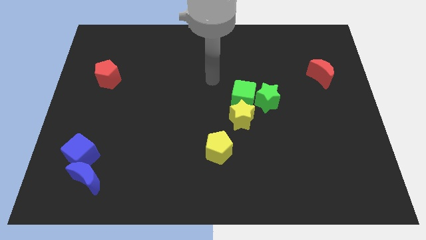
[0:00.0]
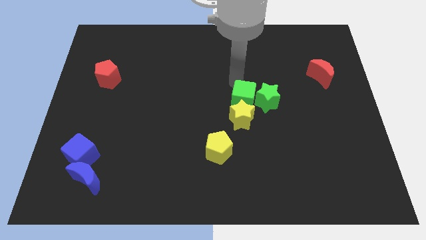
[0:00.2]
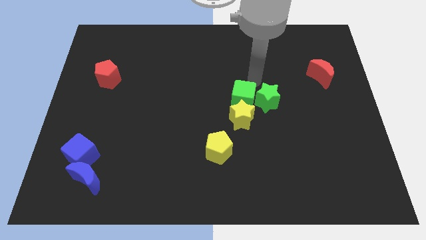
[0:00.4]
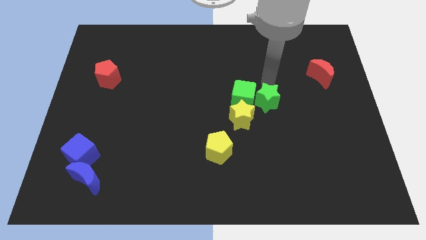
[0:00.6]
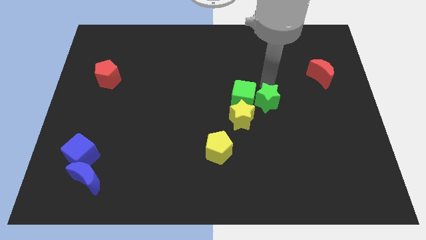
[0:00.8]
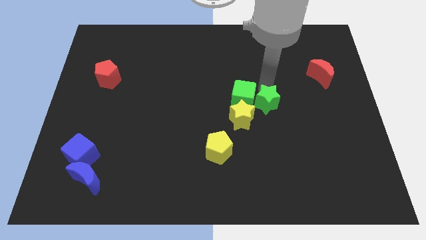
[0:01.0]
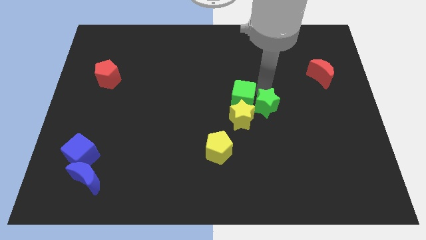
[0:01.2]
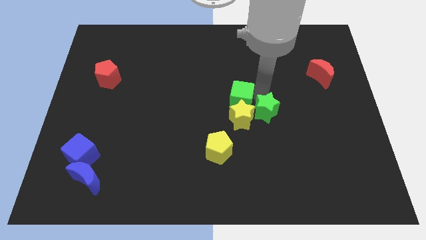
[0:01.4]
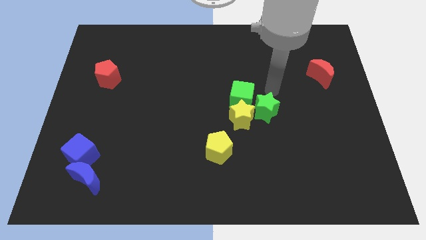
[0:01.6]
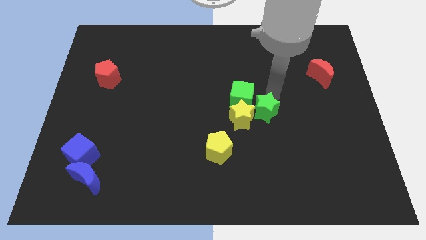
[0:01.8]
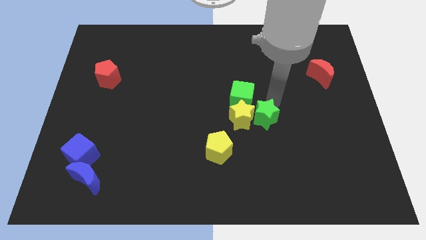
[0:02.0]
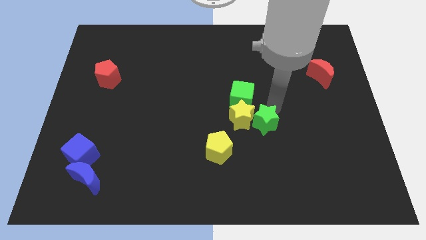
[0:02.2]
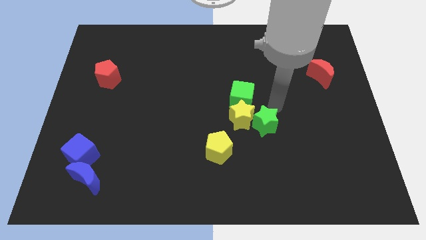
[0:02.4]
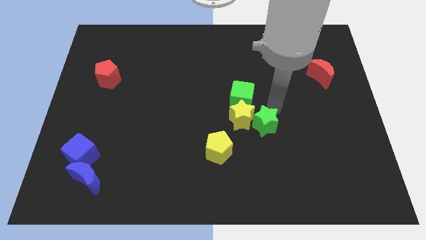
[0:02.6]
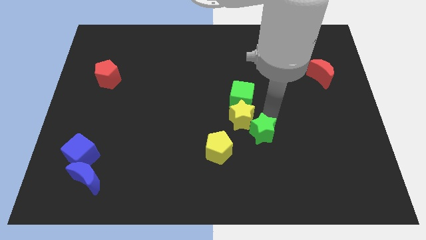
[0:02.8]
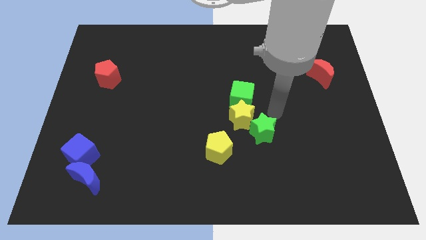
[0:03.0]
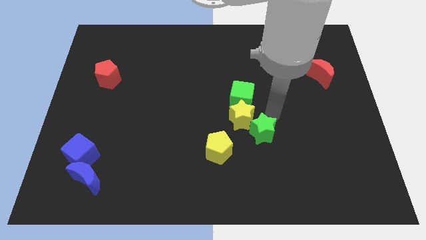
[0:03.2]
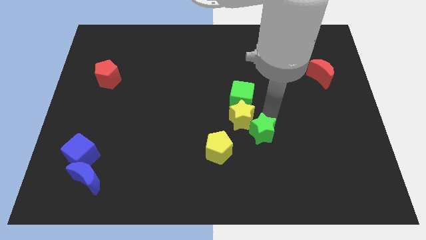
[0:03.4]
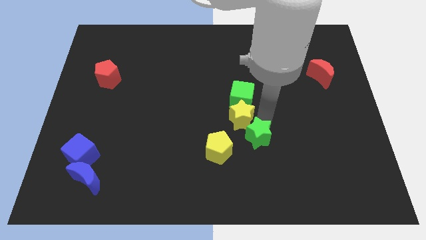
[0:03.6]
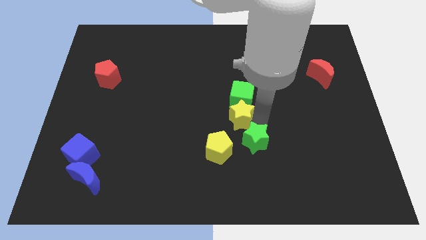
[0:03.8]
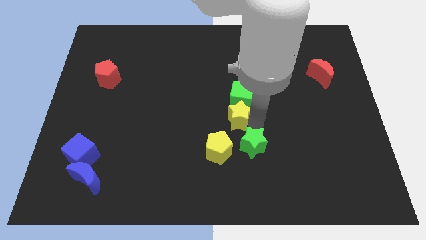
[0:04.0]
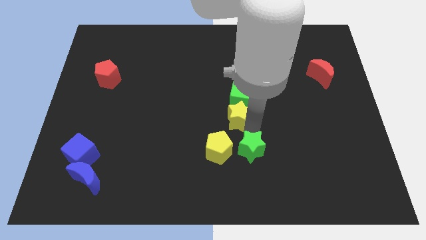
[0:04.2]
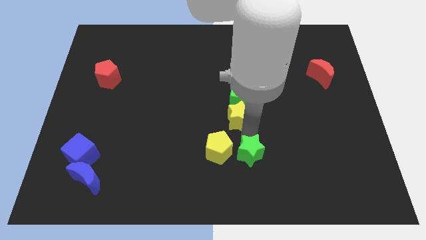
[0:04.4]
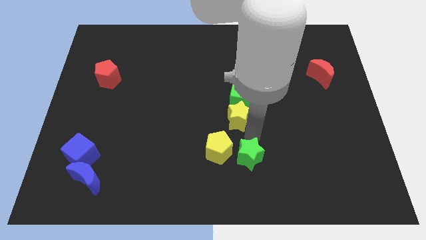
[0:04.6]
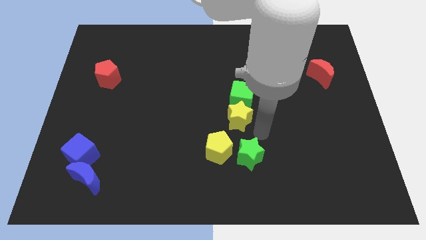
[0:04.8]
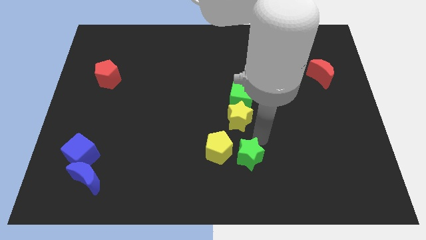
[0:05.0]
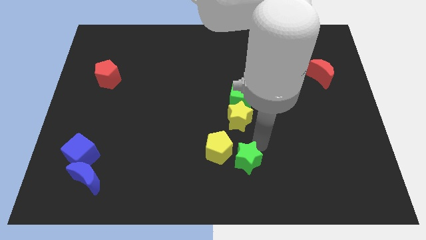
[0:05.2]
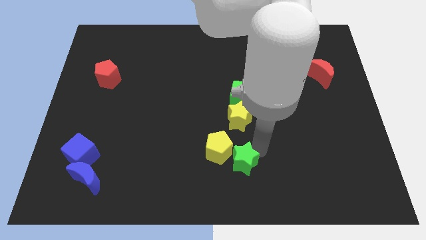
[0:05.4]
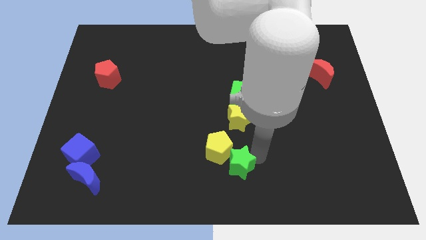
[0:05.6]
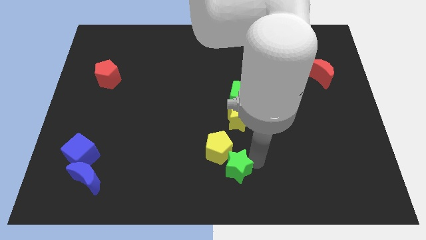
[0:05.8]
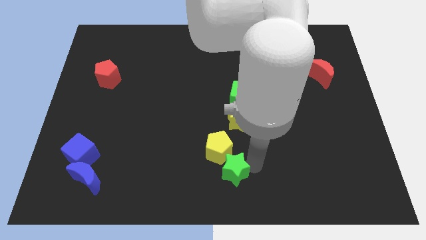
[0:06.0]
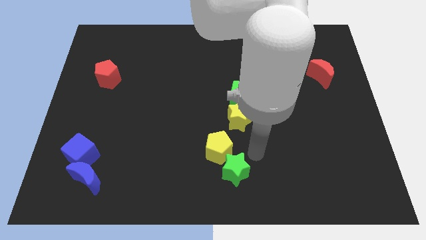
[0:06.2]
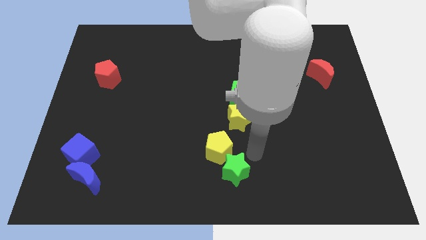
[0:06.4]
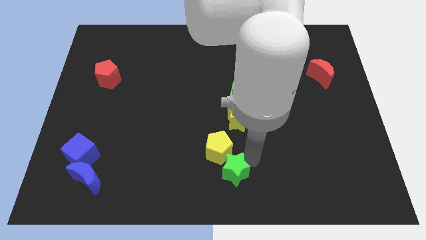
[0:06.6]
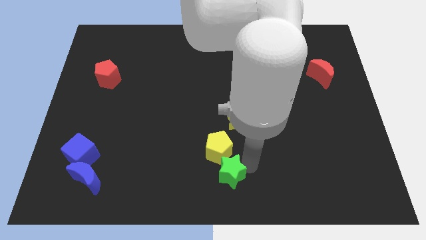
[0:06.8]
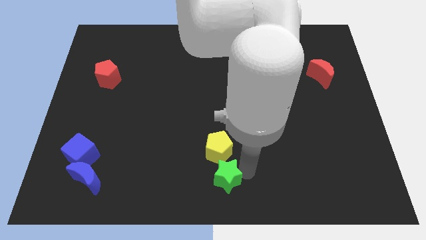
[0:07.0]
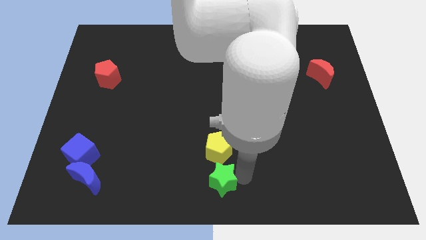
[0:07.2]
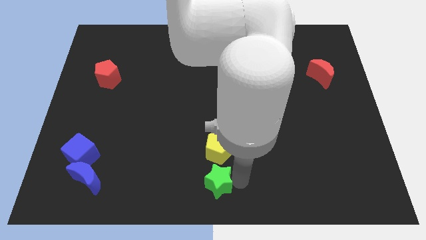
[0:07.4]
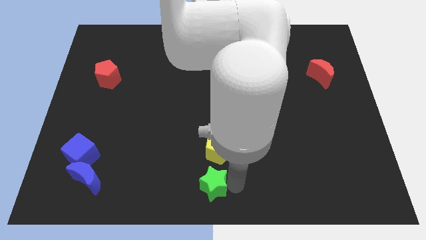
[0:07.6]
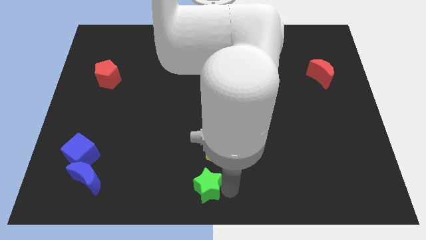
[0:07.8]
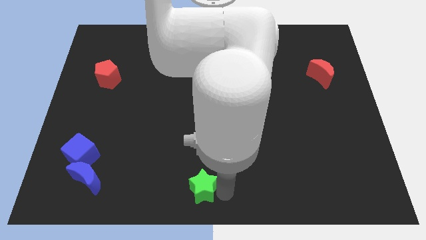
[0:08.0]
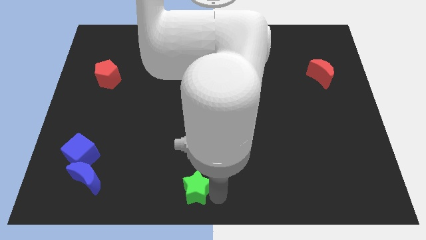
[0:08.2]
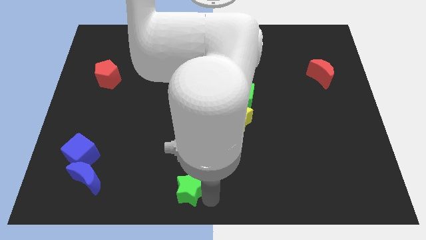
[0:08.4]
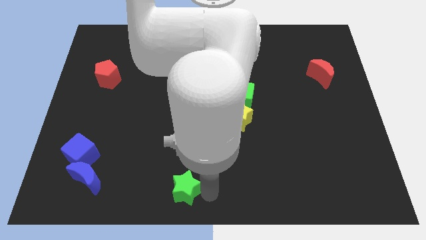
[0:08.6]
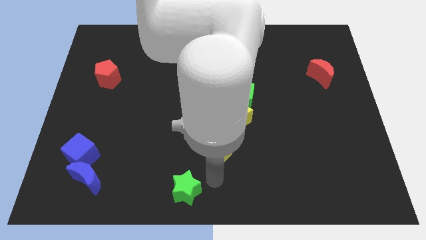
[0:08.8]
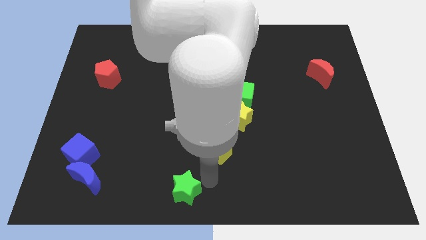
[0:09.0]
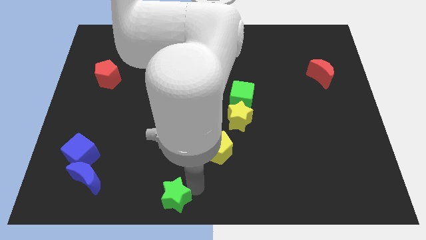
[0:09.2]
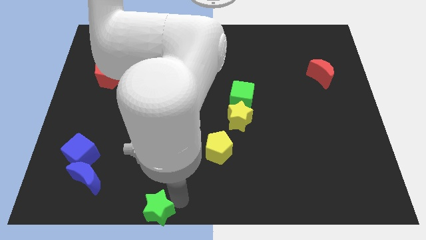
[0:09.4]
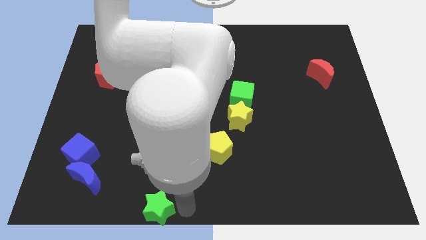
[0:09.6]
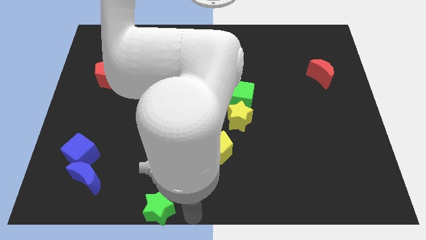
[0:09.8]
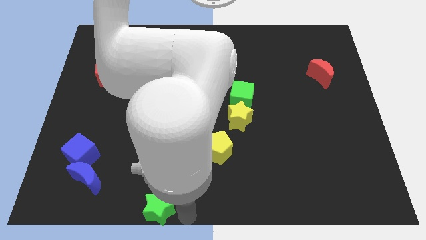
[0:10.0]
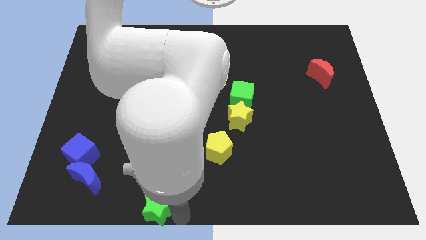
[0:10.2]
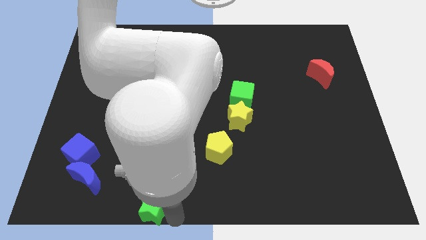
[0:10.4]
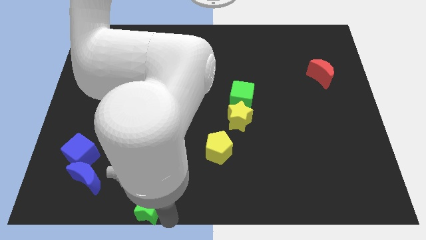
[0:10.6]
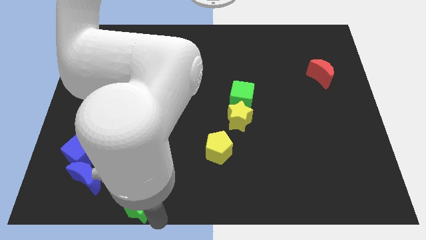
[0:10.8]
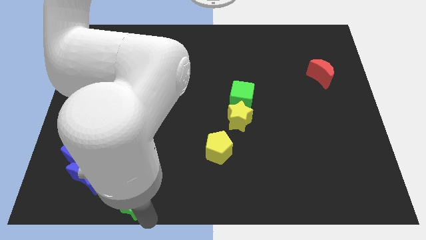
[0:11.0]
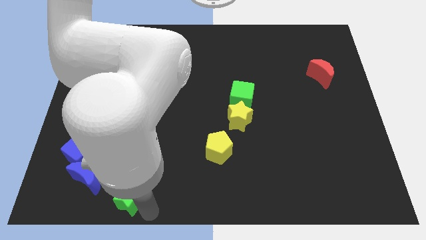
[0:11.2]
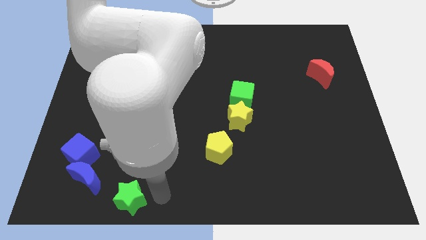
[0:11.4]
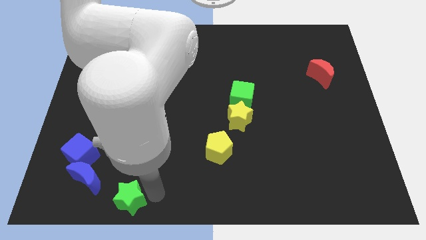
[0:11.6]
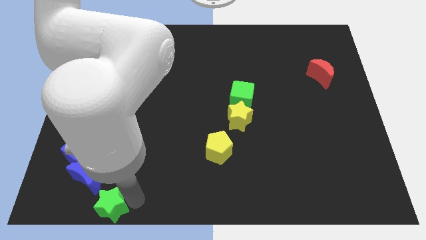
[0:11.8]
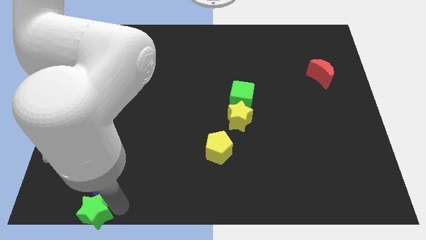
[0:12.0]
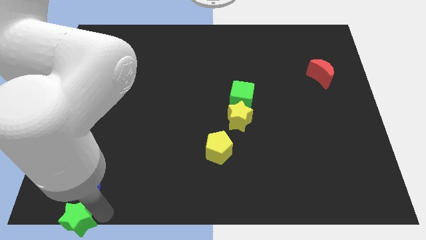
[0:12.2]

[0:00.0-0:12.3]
push the green star to the bottom left

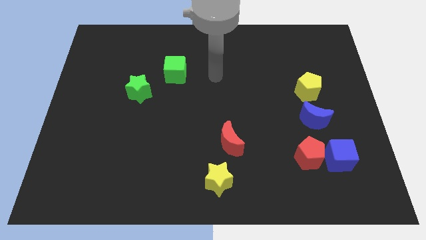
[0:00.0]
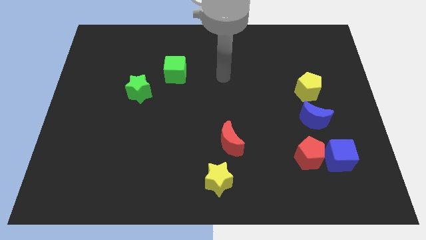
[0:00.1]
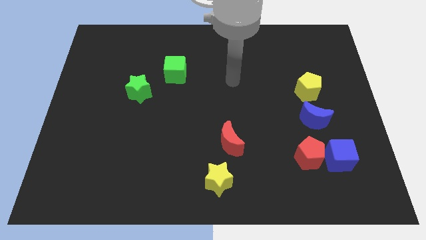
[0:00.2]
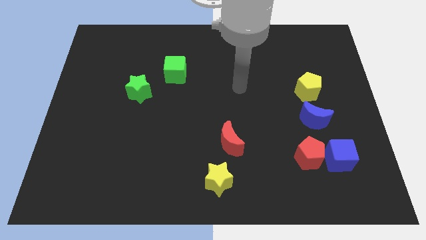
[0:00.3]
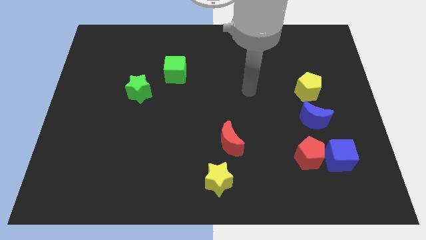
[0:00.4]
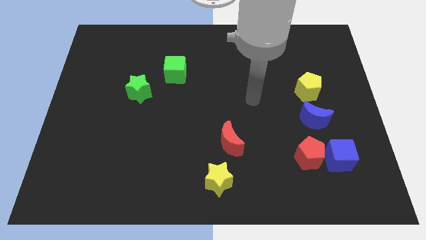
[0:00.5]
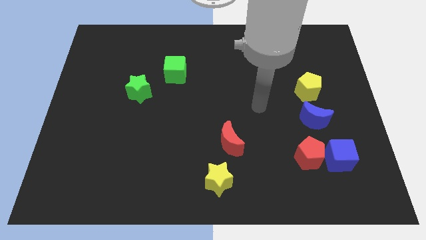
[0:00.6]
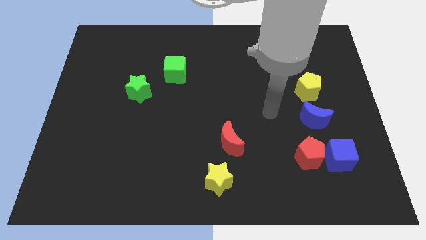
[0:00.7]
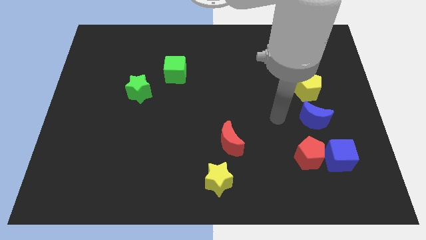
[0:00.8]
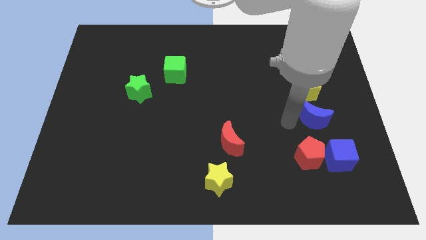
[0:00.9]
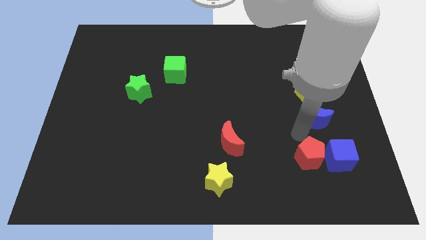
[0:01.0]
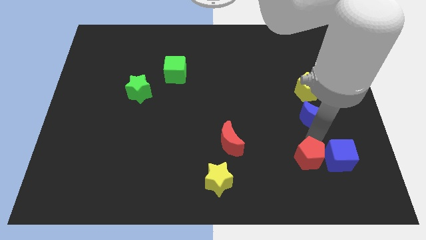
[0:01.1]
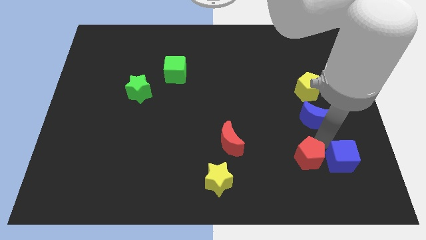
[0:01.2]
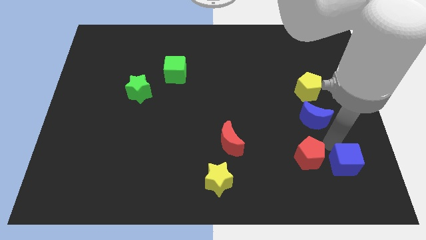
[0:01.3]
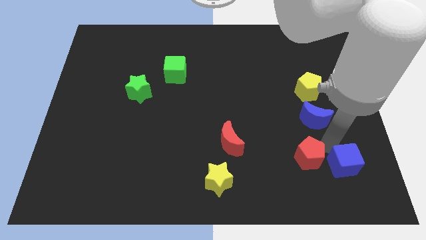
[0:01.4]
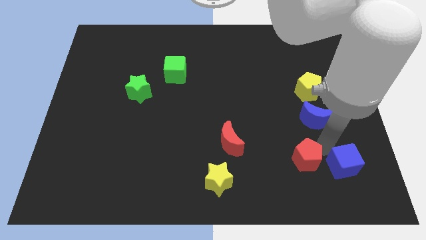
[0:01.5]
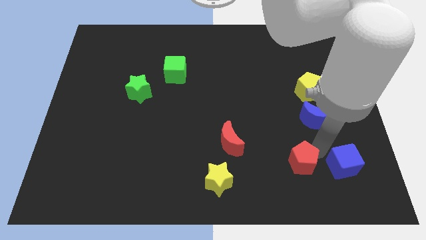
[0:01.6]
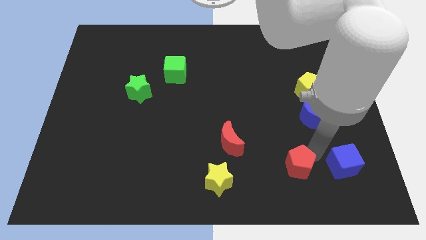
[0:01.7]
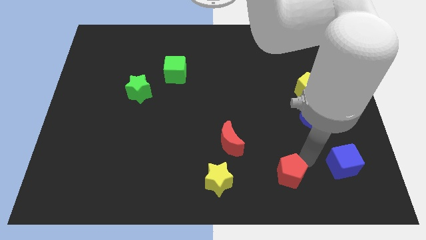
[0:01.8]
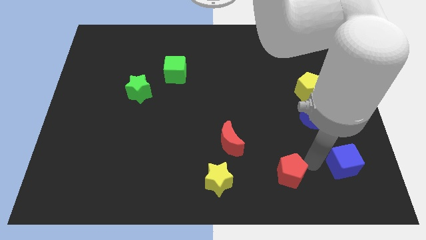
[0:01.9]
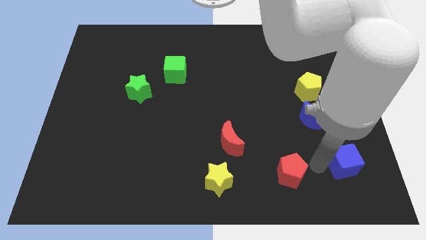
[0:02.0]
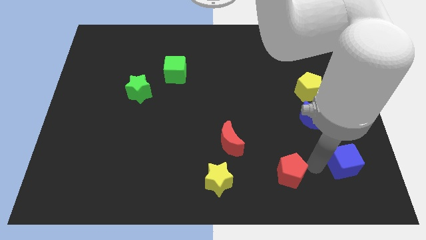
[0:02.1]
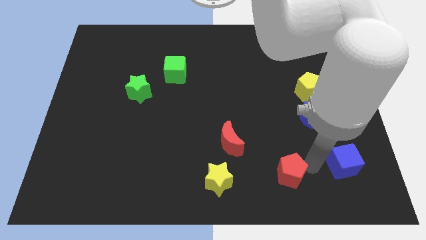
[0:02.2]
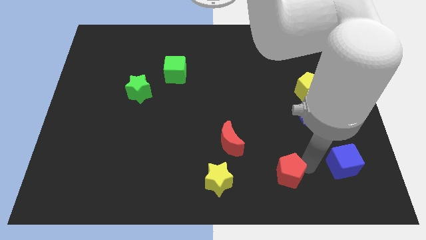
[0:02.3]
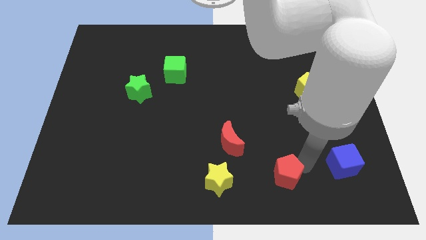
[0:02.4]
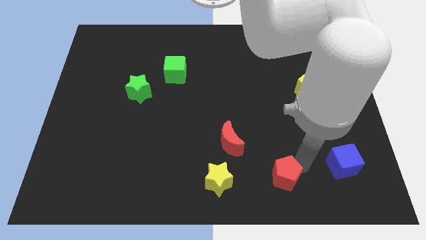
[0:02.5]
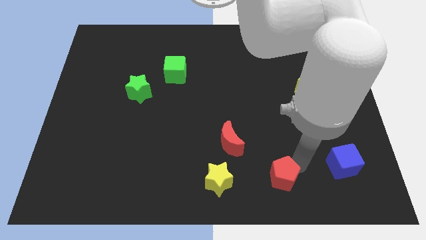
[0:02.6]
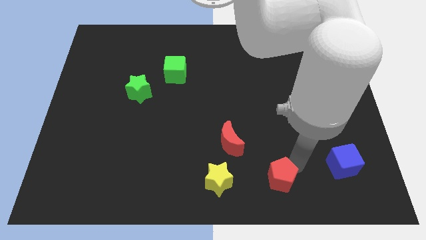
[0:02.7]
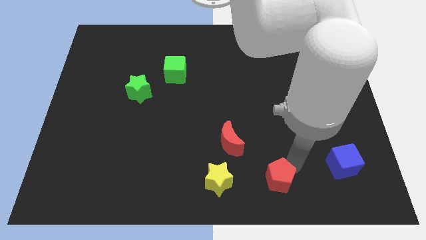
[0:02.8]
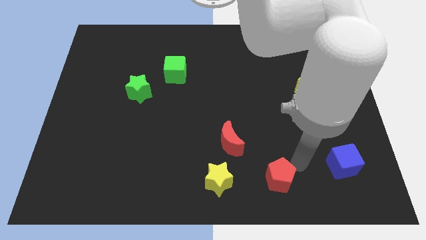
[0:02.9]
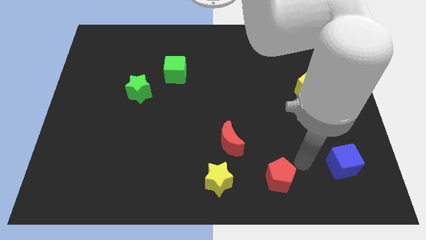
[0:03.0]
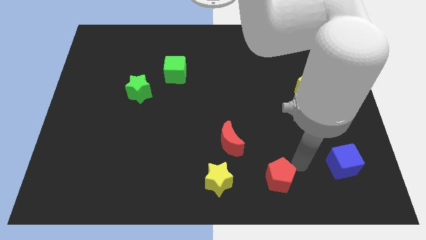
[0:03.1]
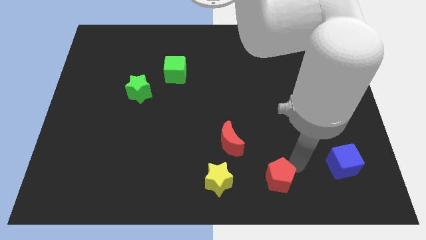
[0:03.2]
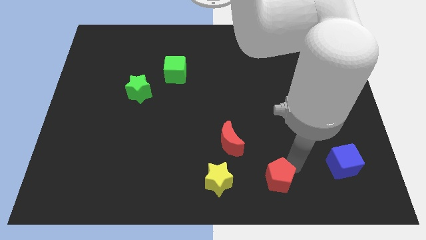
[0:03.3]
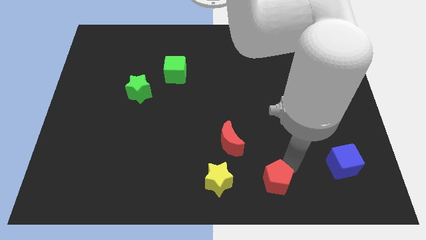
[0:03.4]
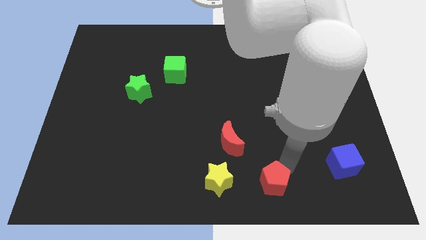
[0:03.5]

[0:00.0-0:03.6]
slide the red pentagon to the bottom side
